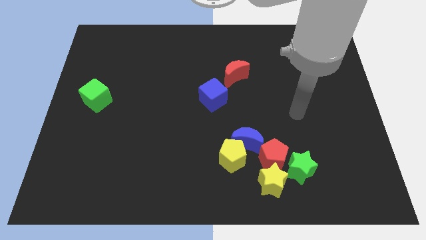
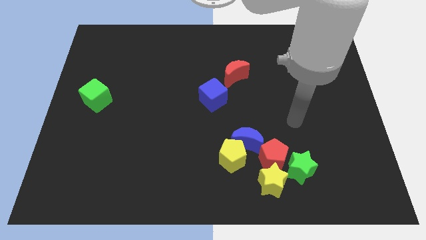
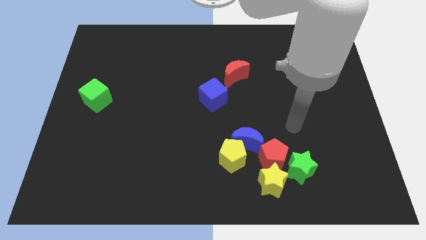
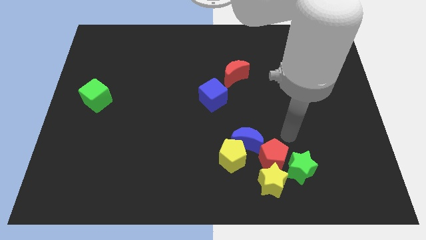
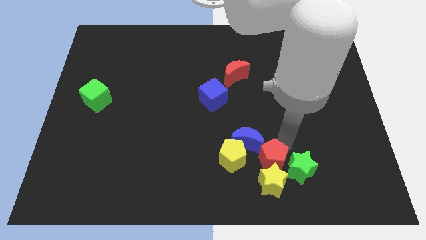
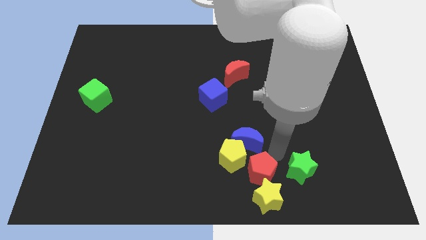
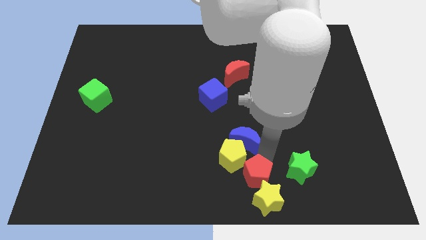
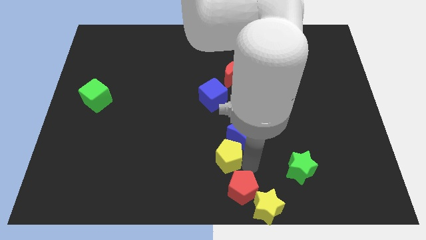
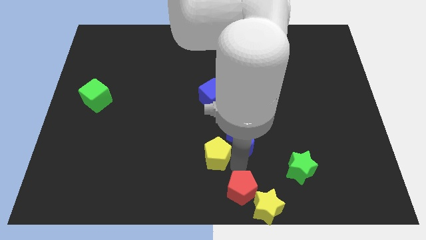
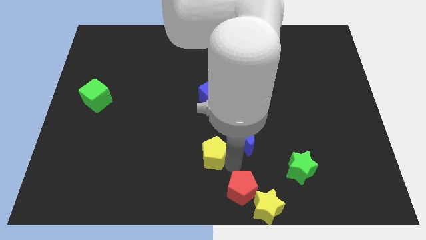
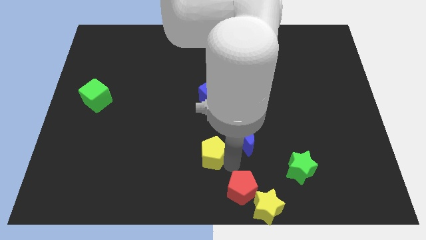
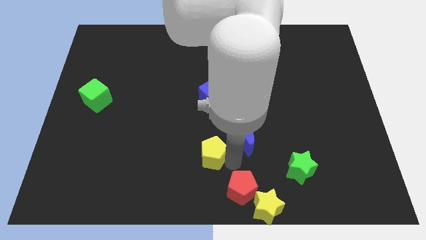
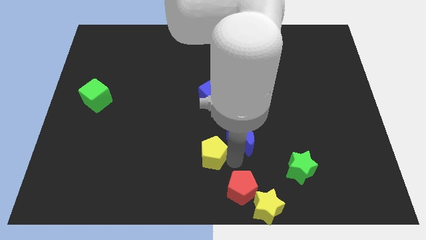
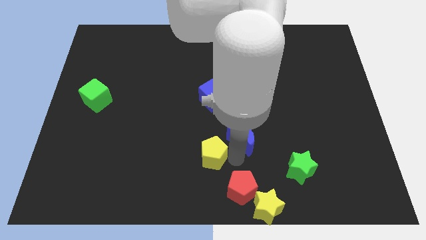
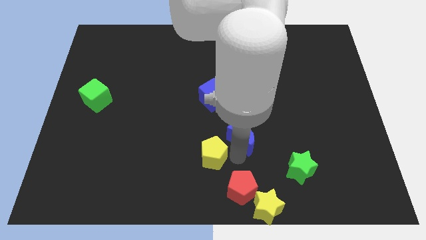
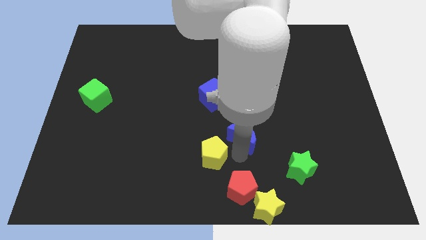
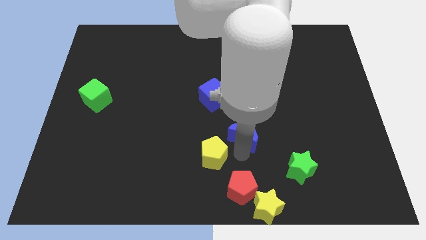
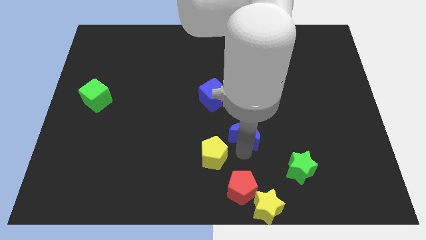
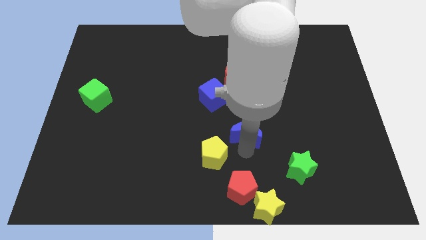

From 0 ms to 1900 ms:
separate the blue moon from the yellow pentagon and red pentagon

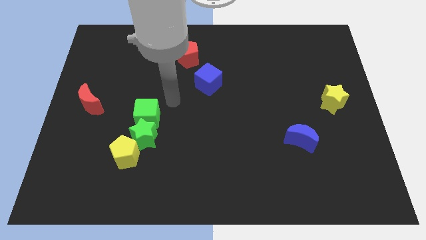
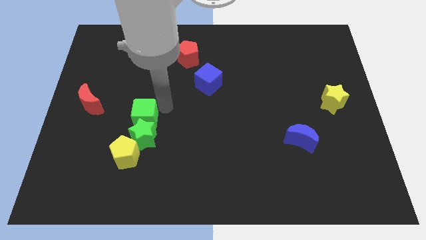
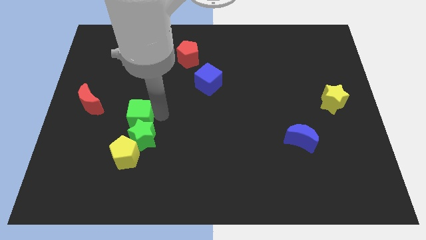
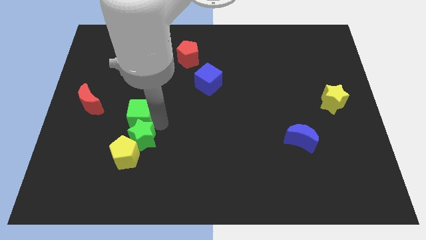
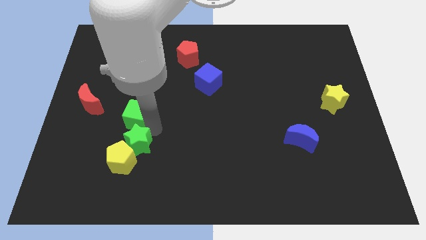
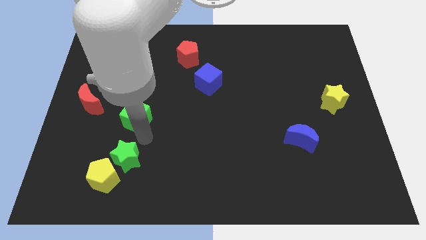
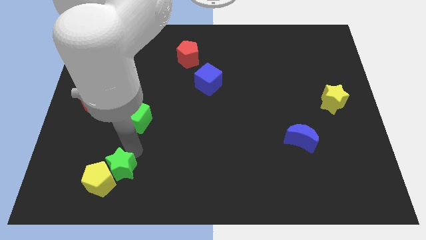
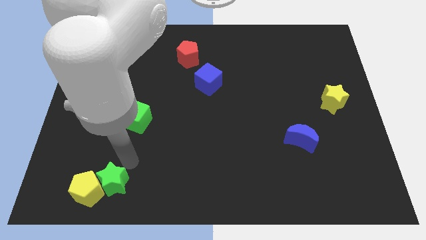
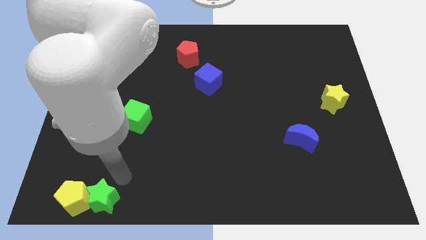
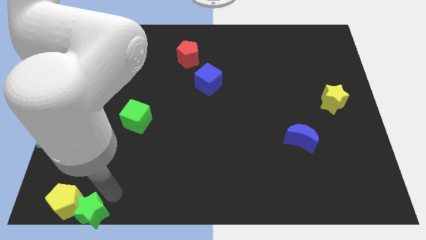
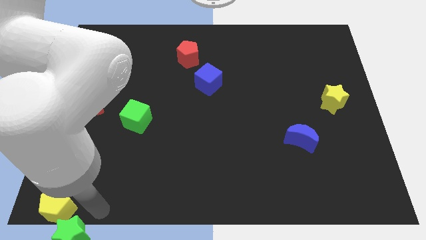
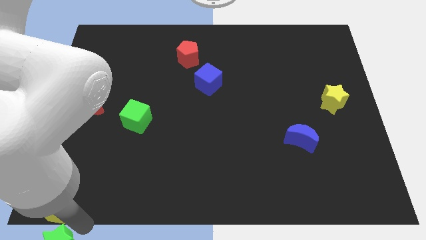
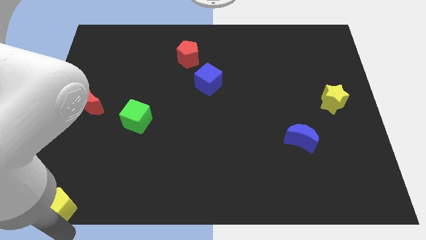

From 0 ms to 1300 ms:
separate the yellow pentagon from the green star

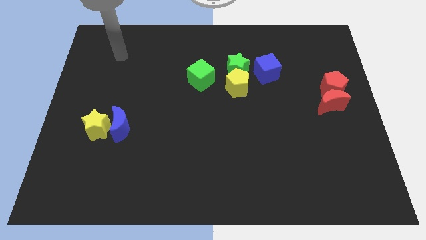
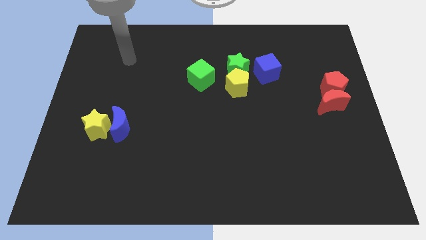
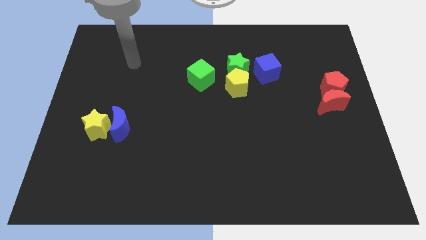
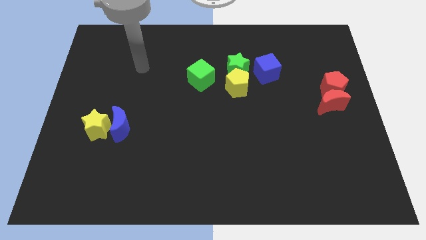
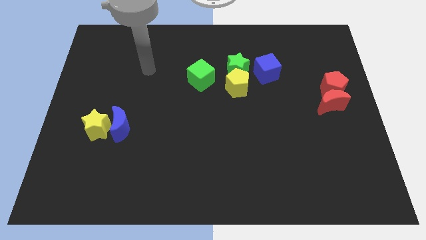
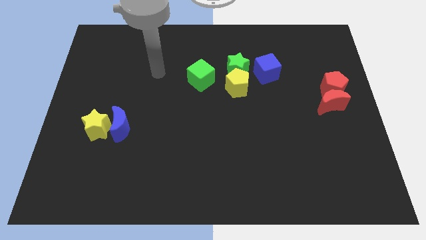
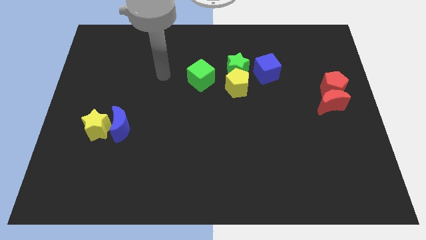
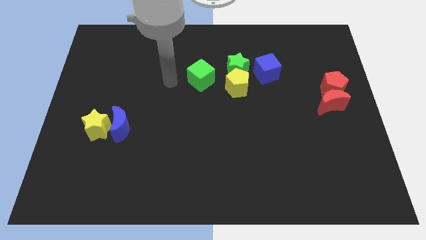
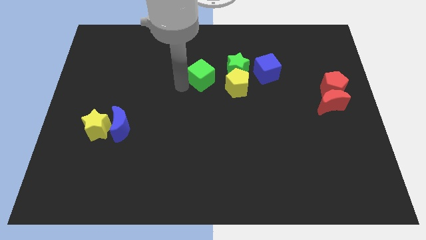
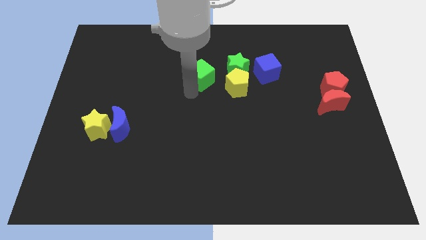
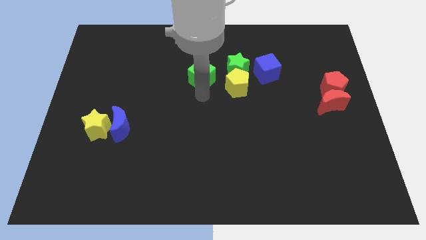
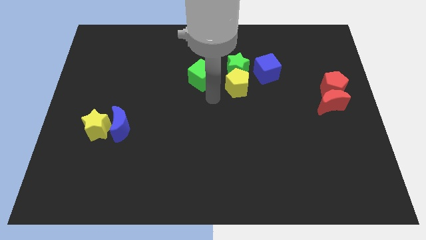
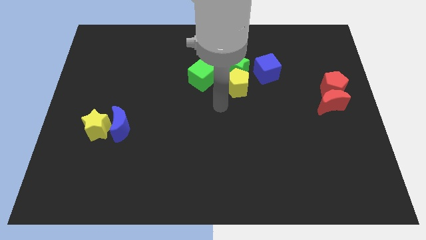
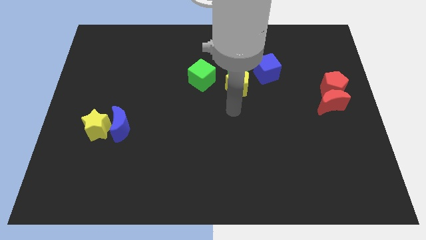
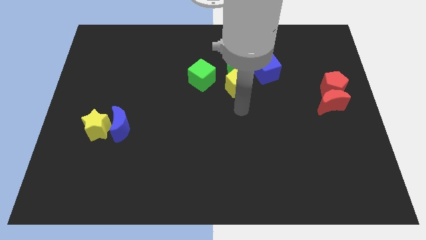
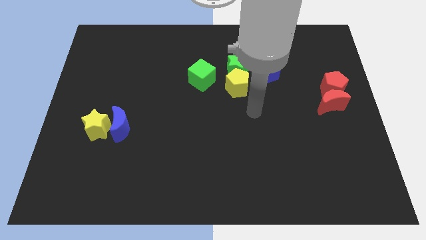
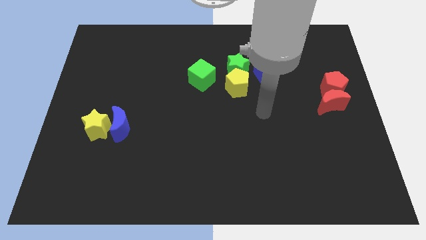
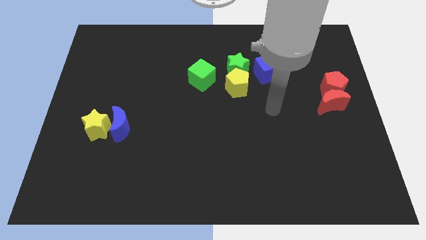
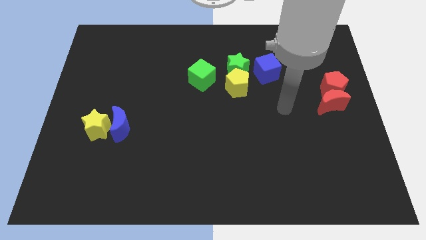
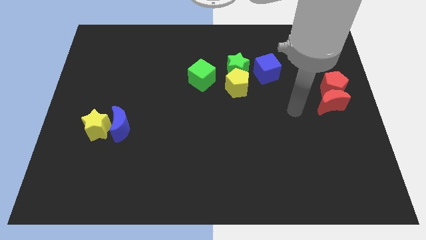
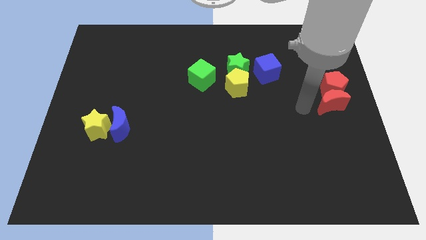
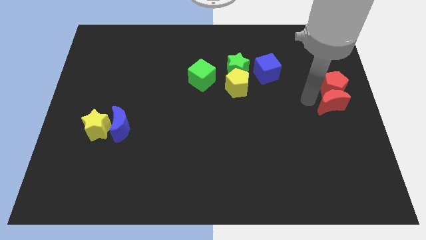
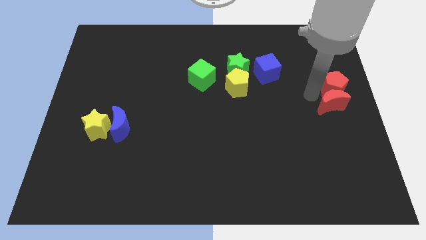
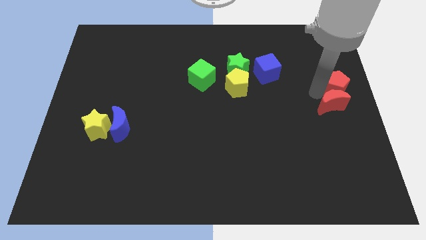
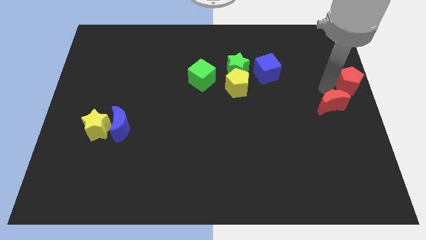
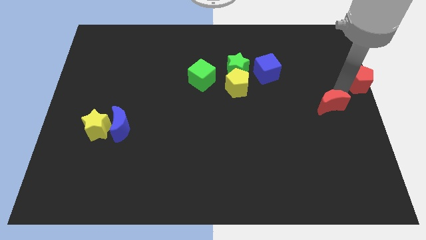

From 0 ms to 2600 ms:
separate the red moon from the red pentagon

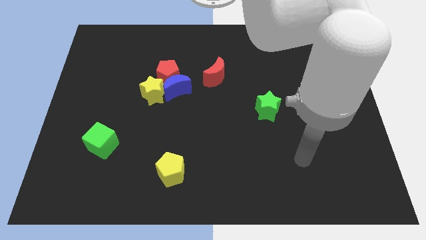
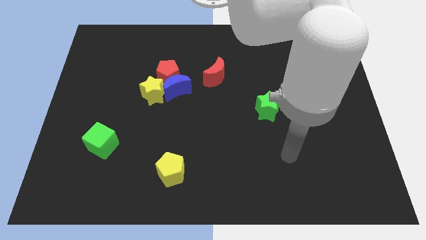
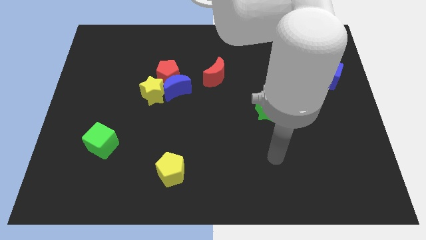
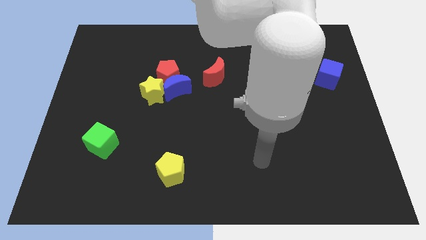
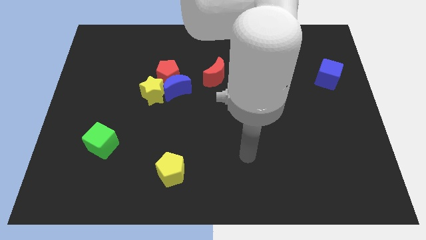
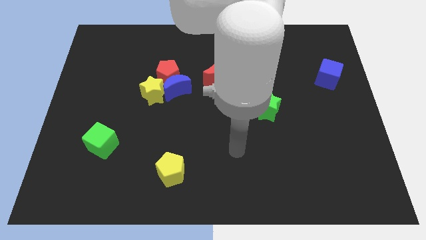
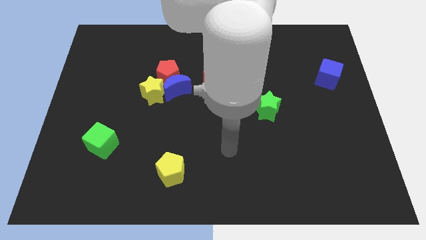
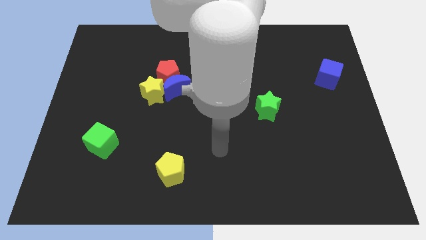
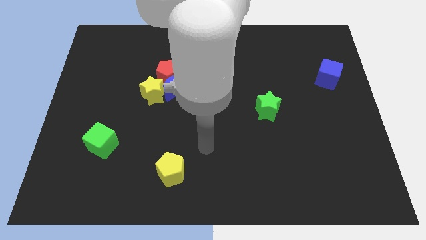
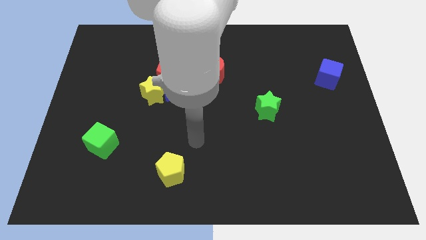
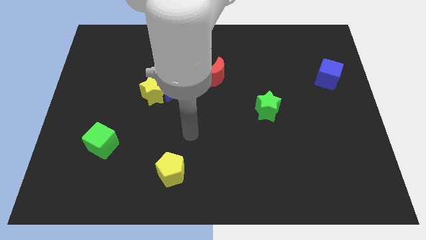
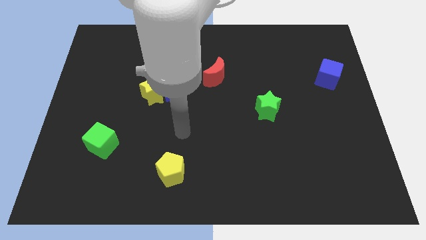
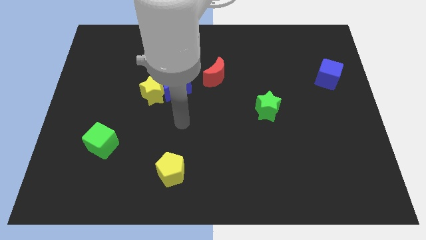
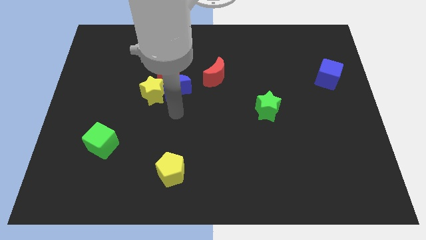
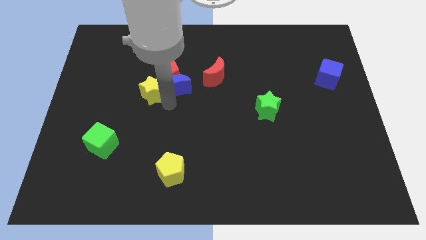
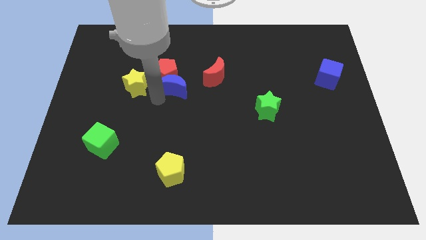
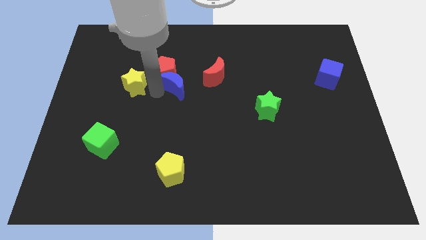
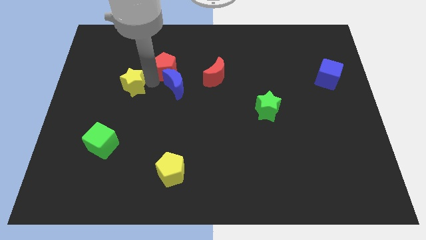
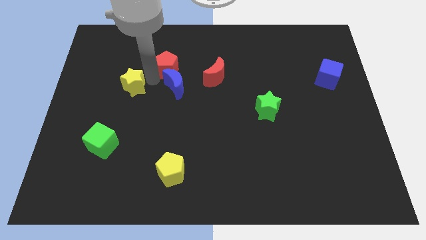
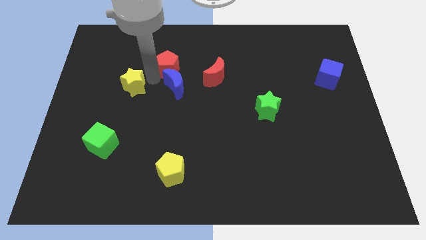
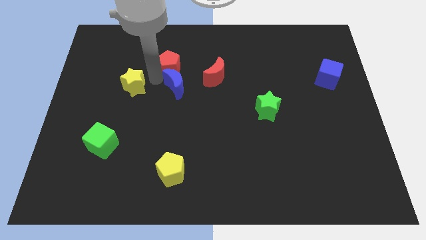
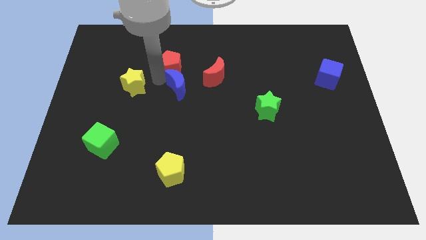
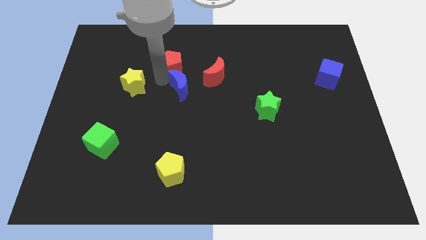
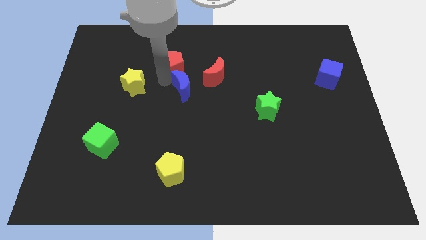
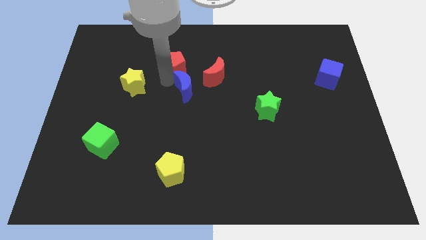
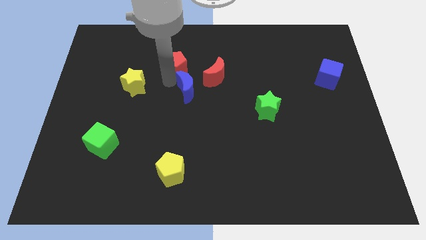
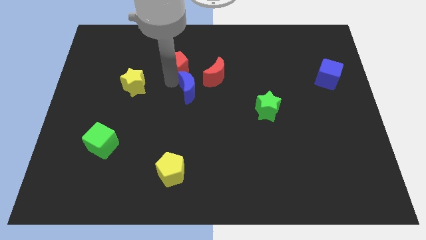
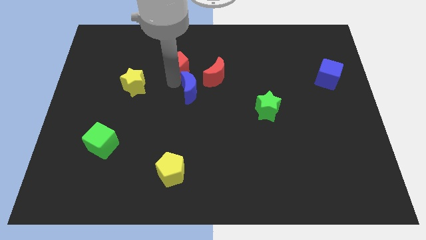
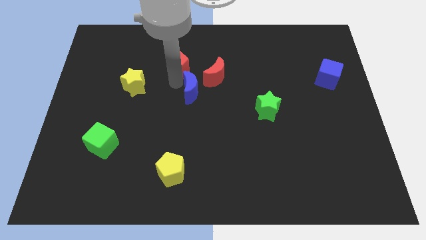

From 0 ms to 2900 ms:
separate the blue moon from the red pentagon and yellow star

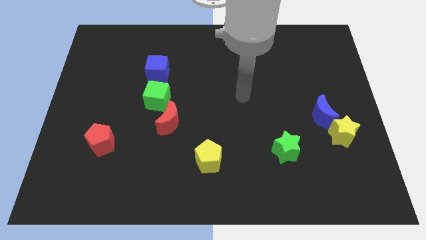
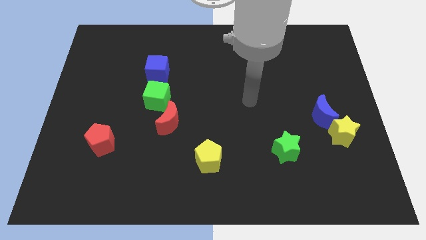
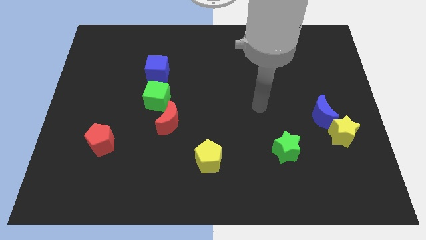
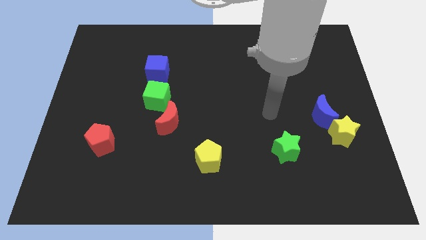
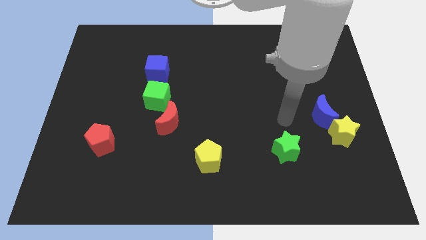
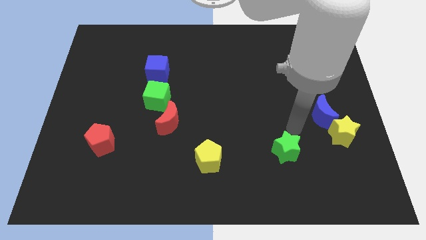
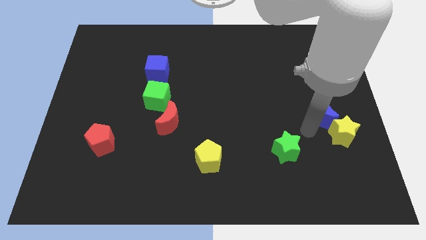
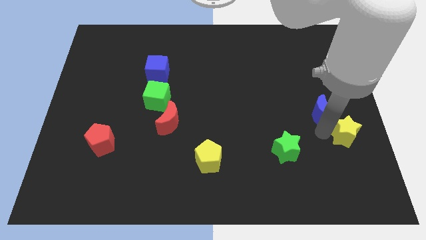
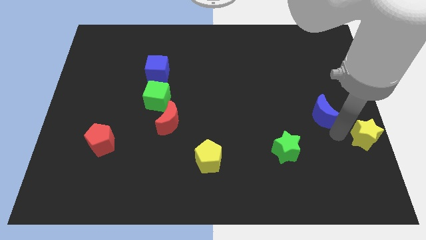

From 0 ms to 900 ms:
move the blue moon away from the yellow star
